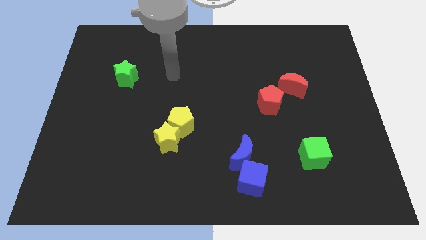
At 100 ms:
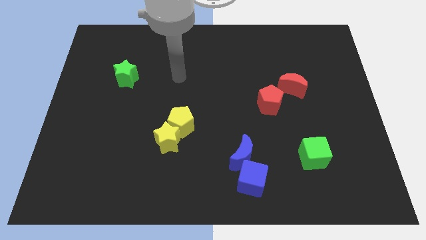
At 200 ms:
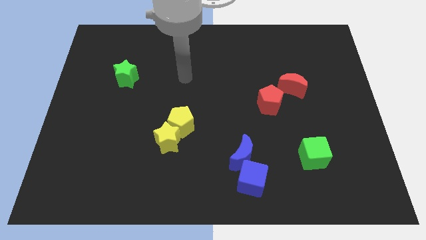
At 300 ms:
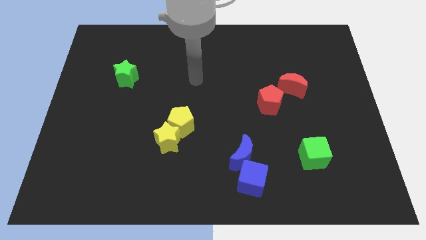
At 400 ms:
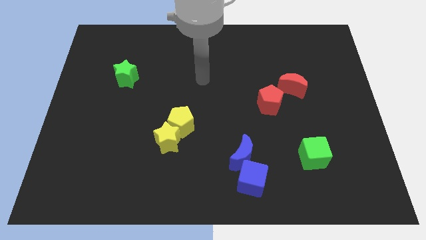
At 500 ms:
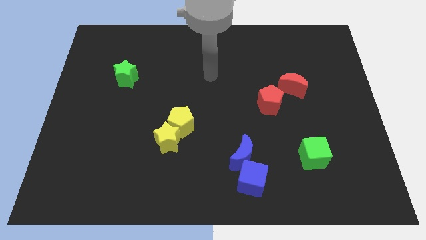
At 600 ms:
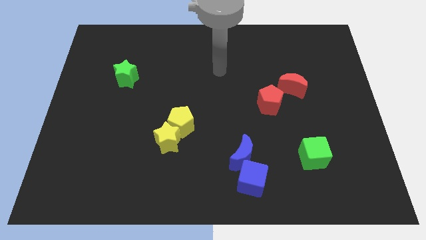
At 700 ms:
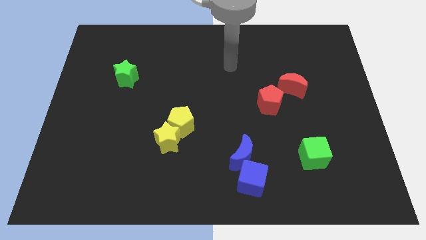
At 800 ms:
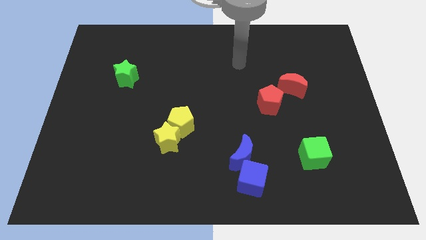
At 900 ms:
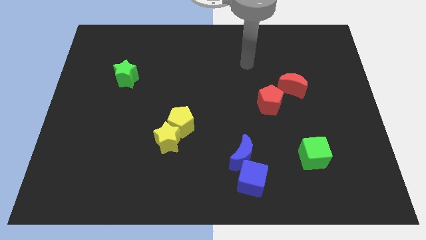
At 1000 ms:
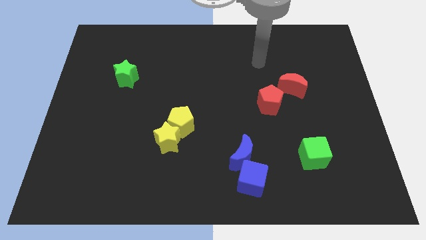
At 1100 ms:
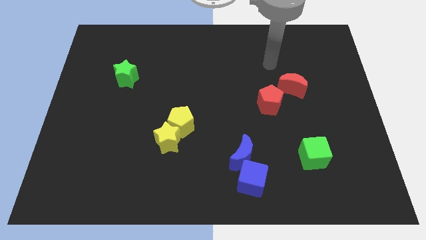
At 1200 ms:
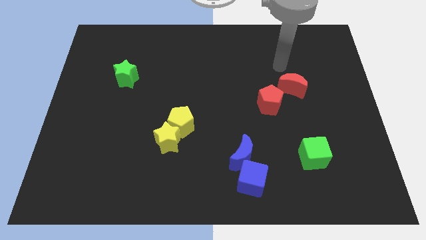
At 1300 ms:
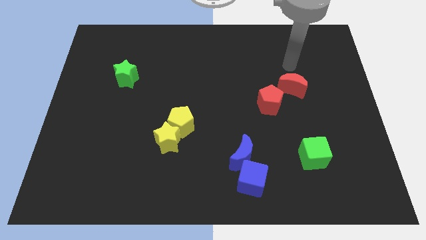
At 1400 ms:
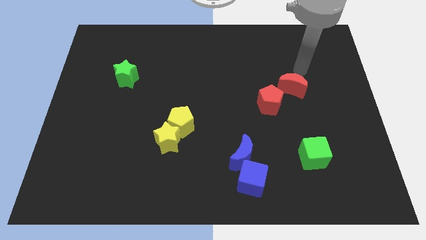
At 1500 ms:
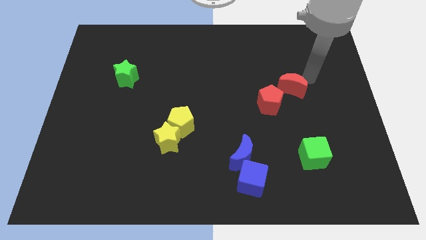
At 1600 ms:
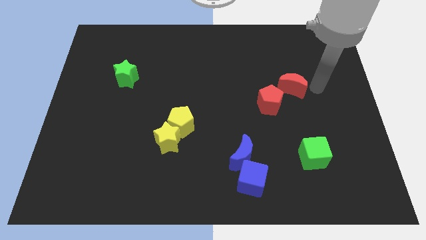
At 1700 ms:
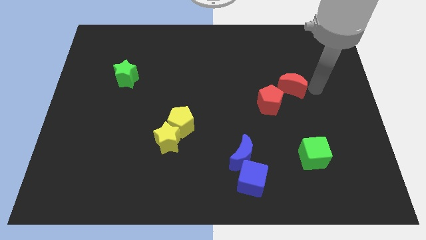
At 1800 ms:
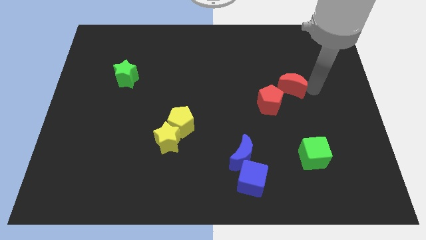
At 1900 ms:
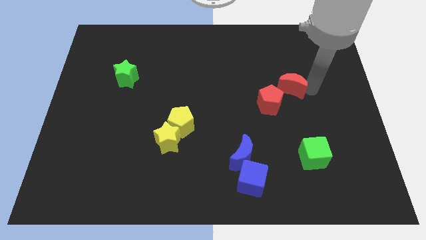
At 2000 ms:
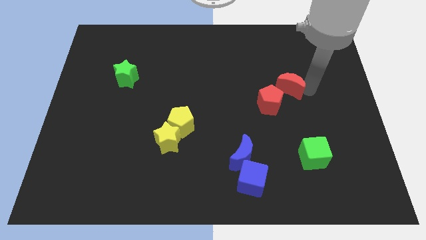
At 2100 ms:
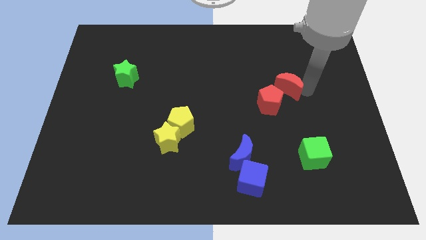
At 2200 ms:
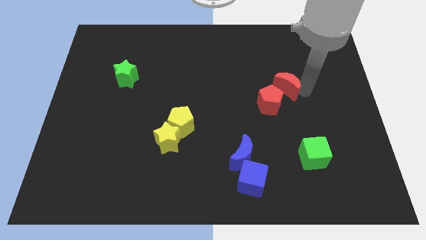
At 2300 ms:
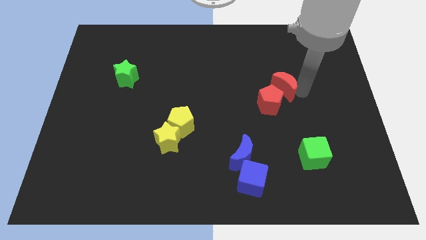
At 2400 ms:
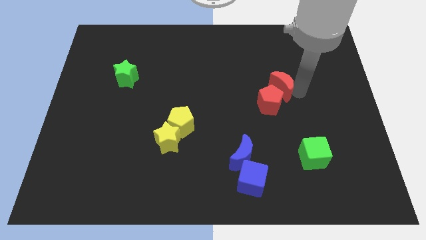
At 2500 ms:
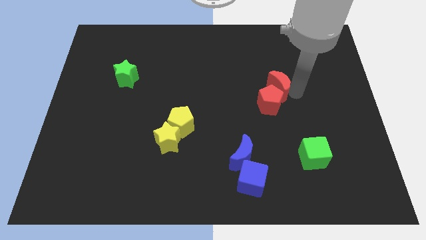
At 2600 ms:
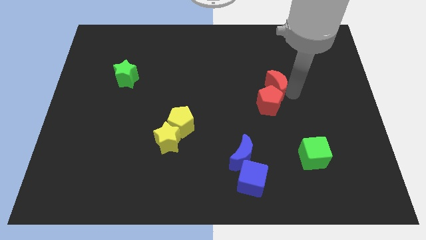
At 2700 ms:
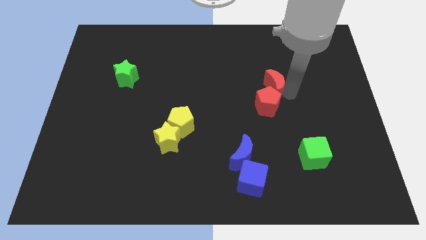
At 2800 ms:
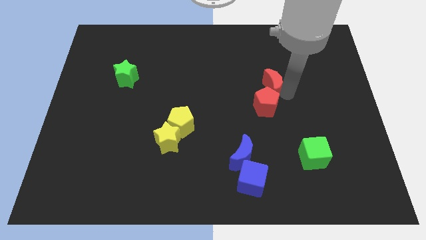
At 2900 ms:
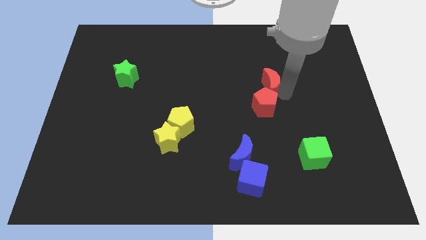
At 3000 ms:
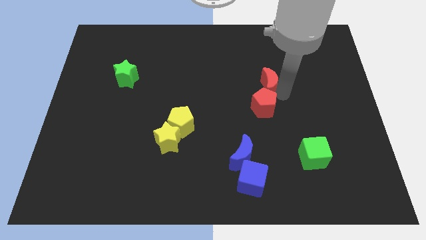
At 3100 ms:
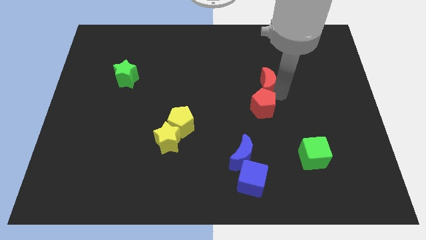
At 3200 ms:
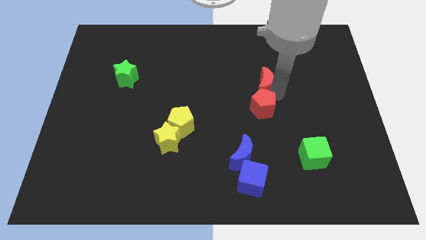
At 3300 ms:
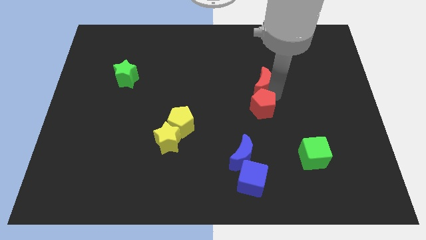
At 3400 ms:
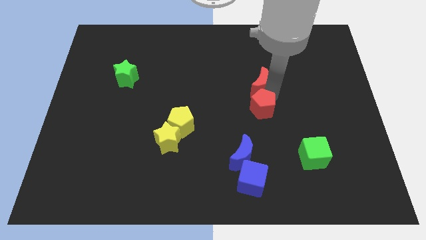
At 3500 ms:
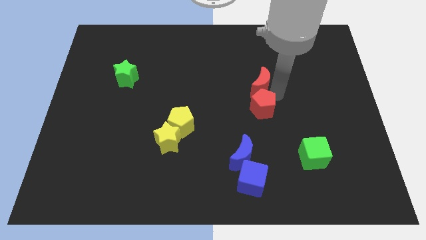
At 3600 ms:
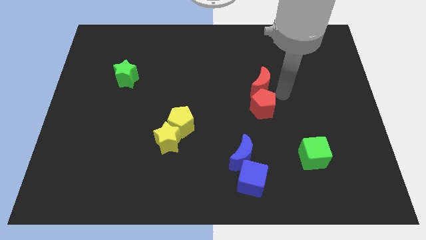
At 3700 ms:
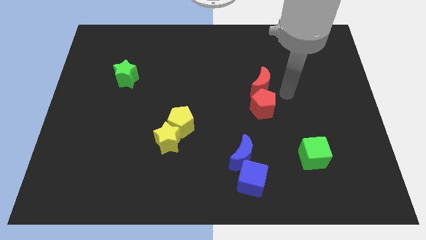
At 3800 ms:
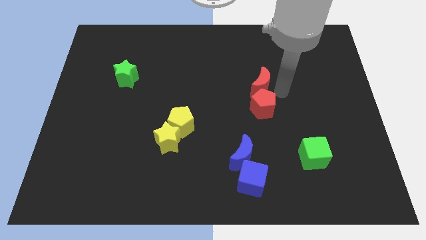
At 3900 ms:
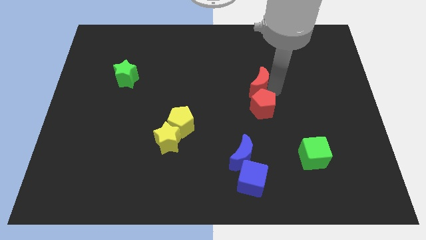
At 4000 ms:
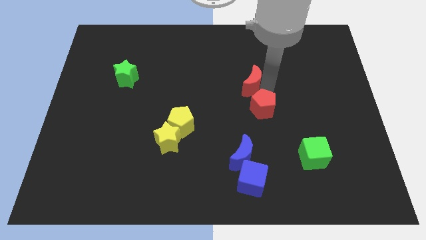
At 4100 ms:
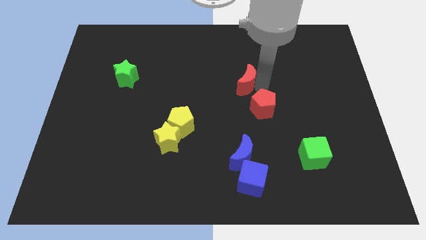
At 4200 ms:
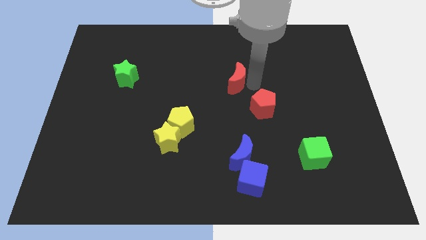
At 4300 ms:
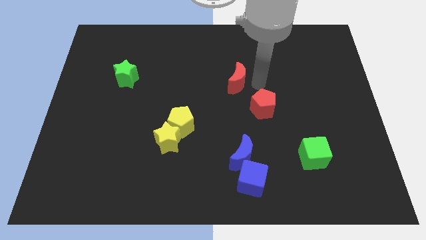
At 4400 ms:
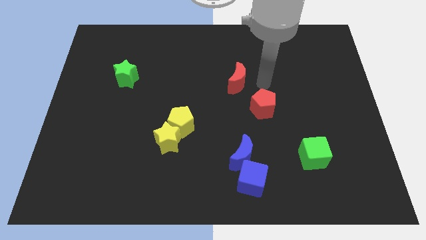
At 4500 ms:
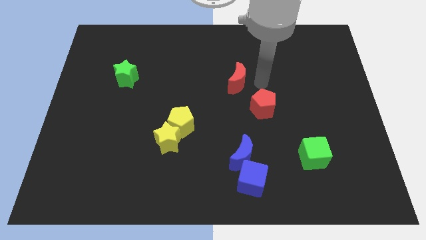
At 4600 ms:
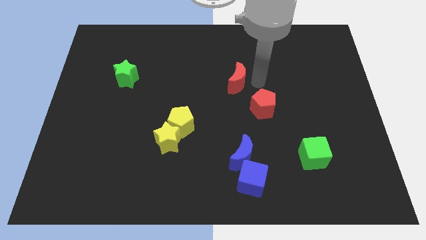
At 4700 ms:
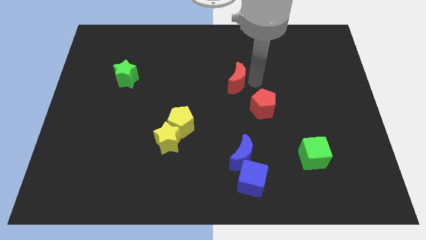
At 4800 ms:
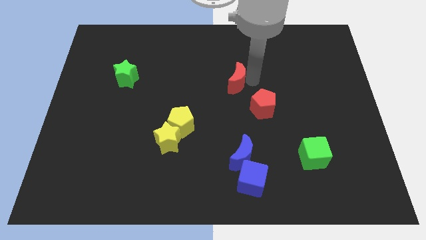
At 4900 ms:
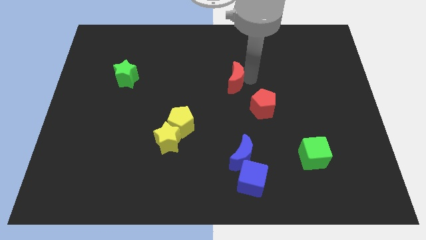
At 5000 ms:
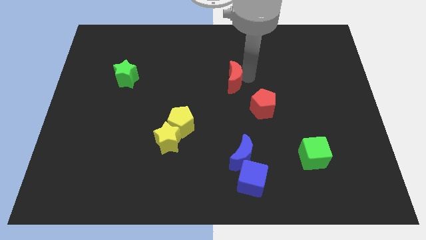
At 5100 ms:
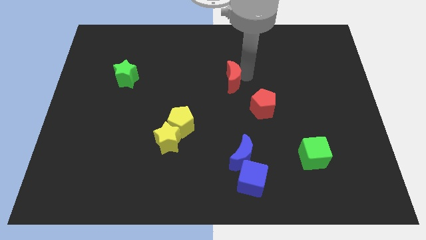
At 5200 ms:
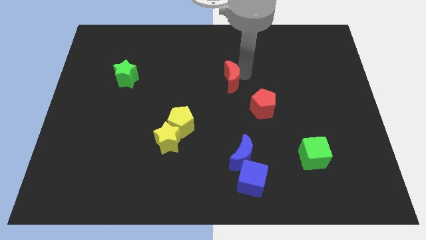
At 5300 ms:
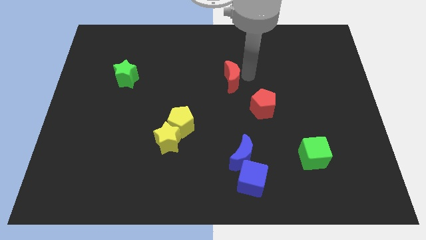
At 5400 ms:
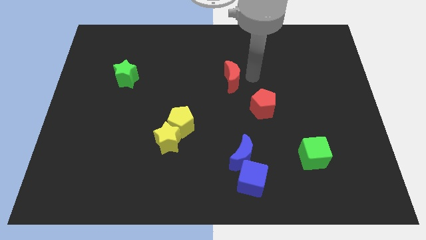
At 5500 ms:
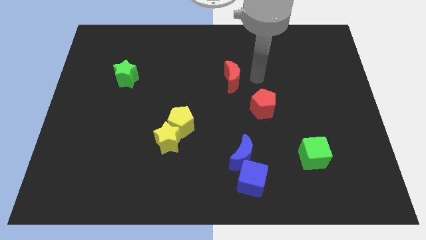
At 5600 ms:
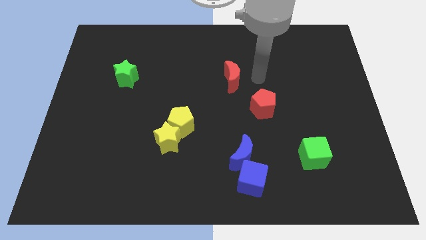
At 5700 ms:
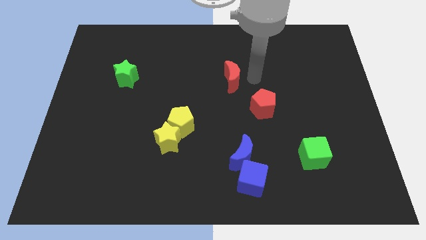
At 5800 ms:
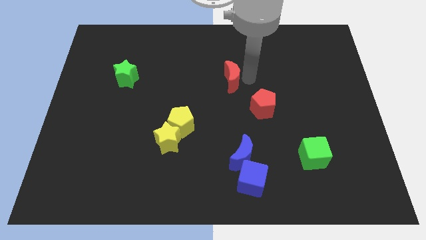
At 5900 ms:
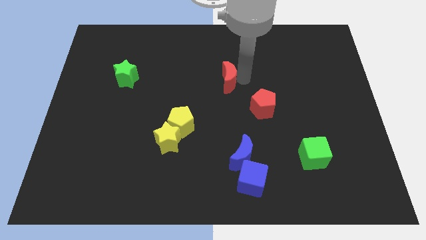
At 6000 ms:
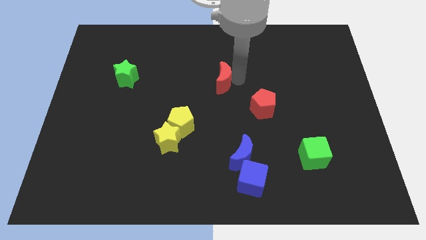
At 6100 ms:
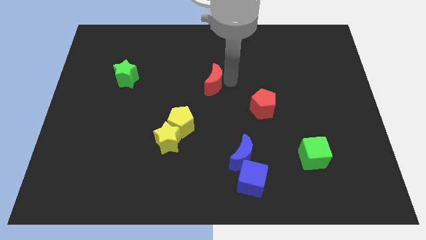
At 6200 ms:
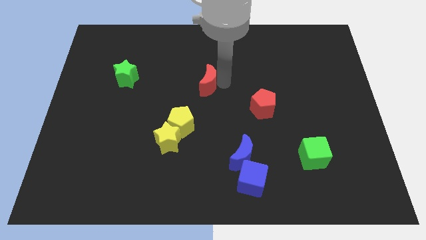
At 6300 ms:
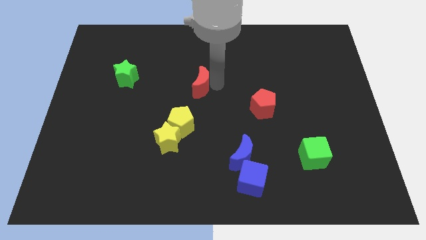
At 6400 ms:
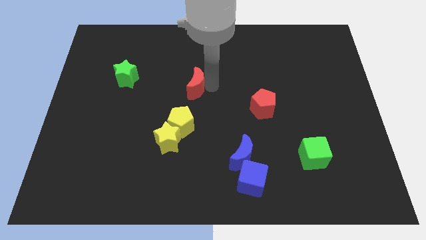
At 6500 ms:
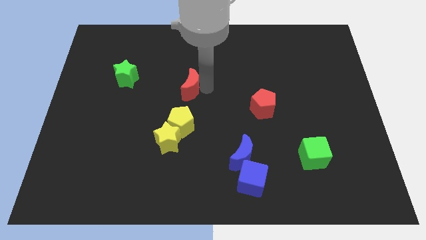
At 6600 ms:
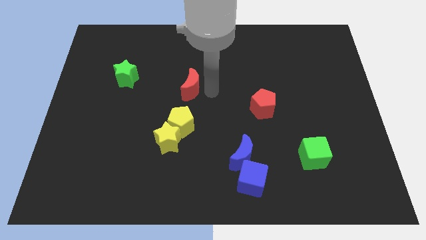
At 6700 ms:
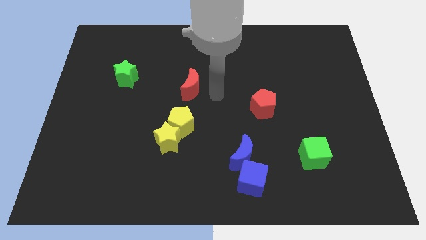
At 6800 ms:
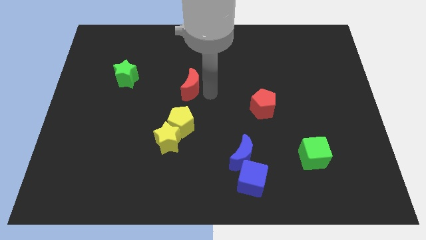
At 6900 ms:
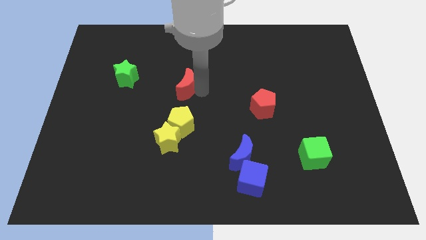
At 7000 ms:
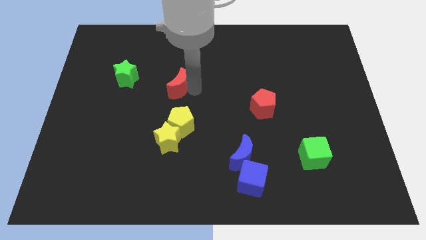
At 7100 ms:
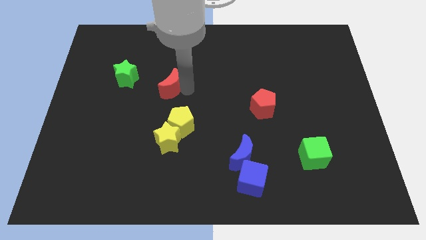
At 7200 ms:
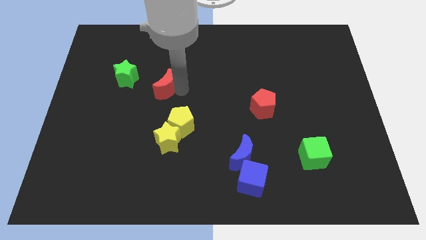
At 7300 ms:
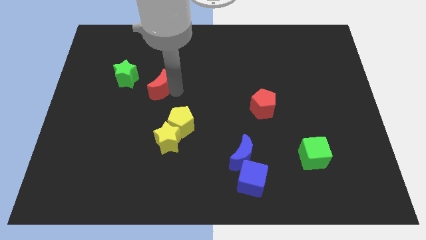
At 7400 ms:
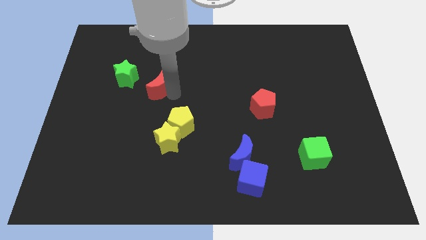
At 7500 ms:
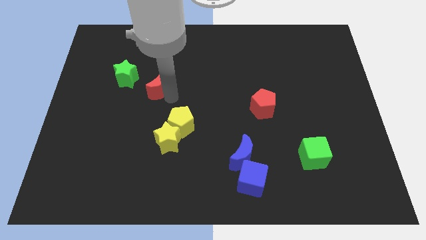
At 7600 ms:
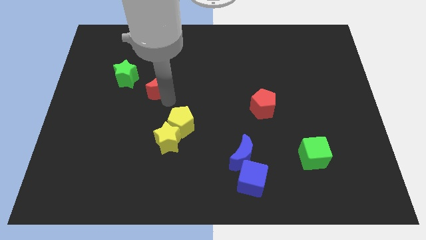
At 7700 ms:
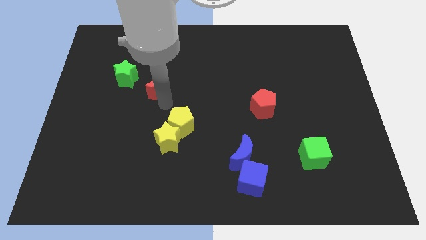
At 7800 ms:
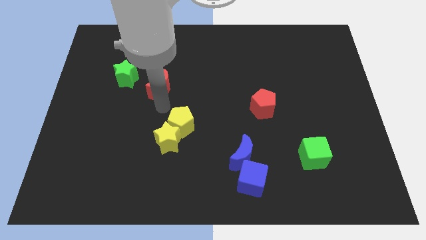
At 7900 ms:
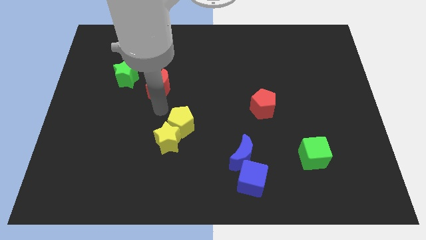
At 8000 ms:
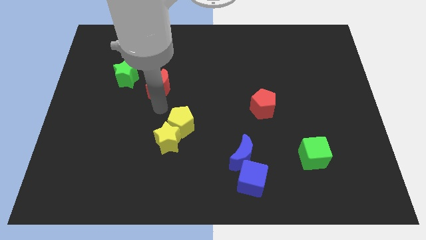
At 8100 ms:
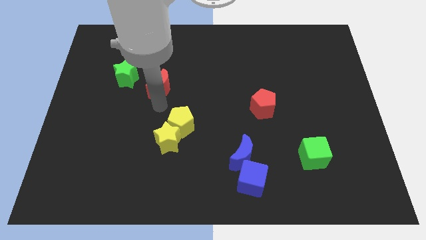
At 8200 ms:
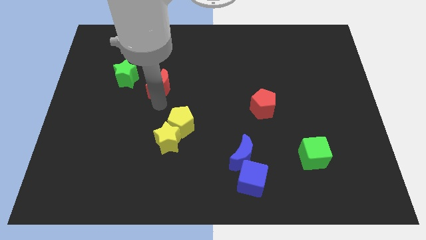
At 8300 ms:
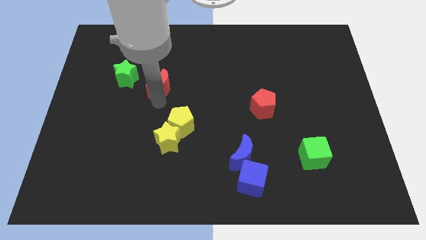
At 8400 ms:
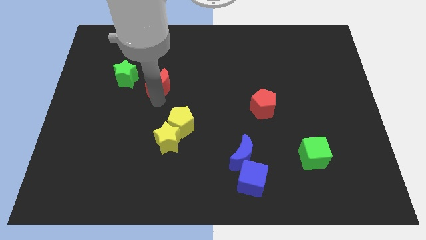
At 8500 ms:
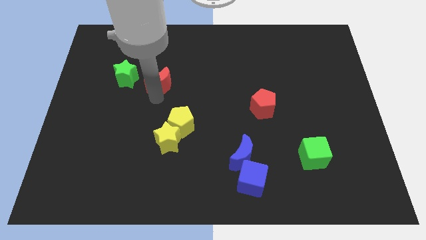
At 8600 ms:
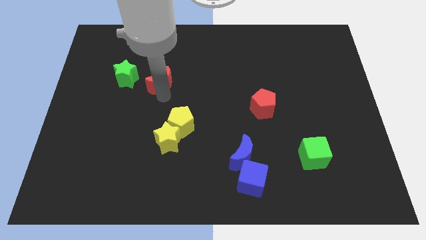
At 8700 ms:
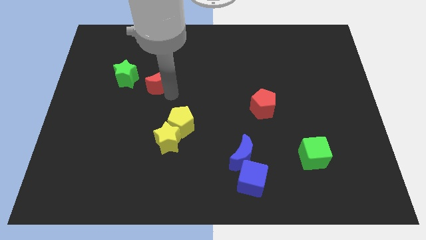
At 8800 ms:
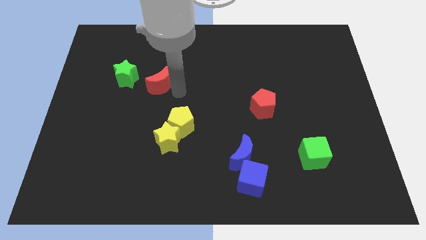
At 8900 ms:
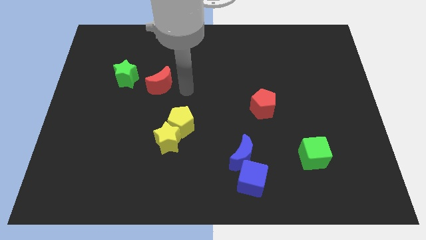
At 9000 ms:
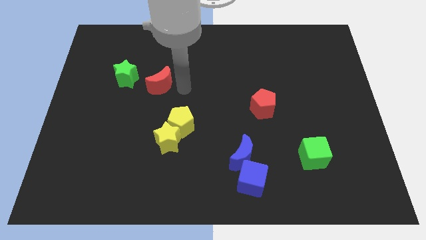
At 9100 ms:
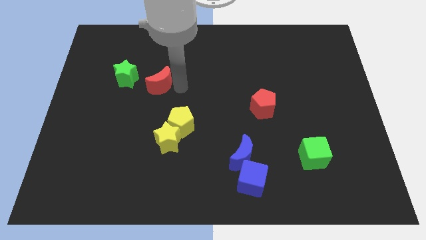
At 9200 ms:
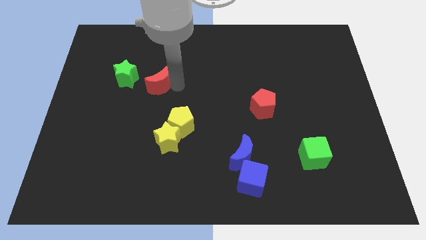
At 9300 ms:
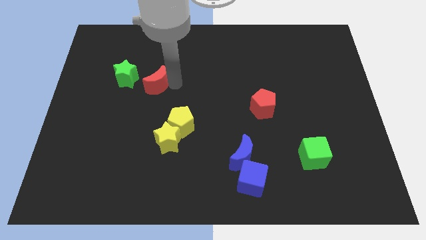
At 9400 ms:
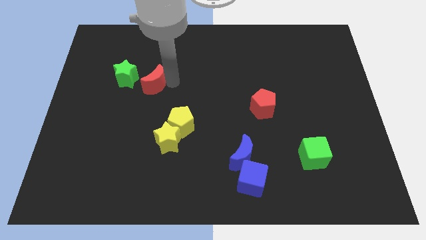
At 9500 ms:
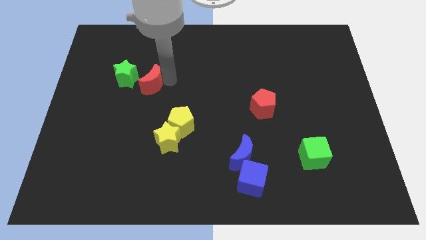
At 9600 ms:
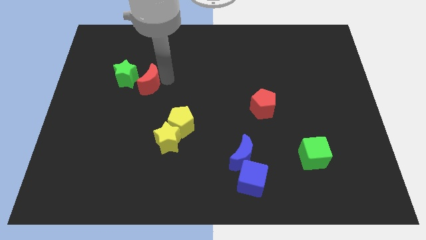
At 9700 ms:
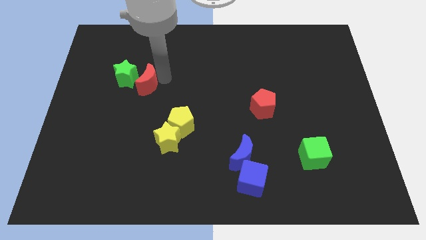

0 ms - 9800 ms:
slide the red moon close to the green star
